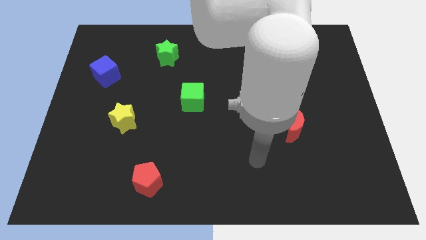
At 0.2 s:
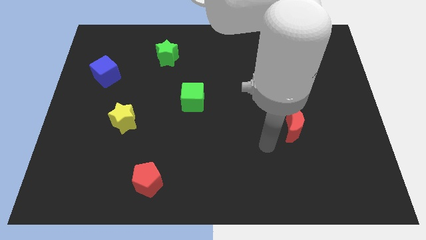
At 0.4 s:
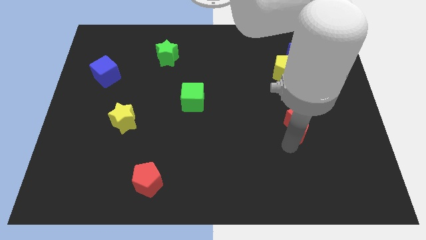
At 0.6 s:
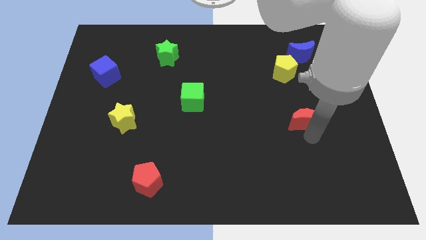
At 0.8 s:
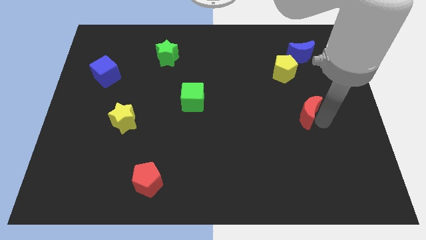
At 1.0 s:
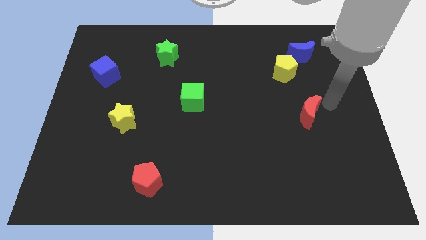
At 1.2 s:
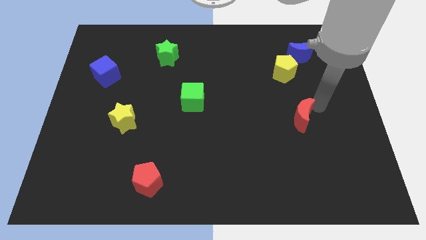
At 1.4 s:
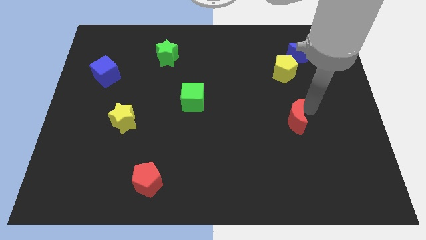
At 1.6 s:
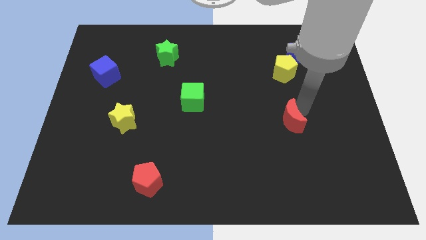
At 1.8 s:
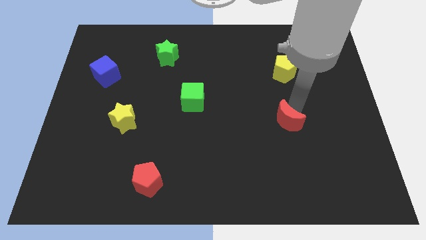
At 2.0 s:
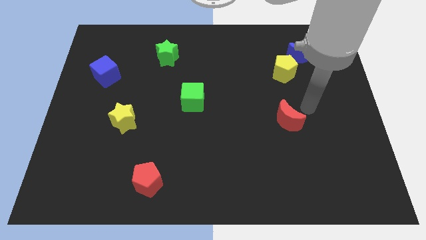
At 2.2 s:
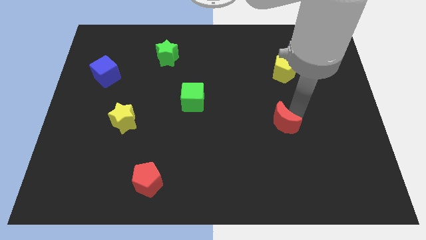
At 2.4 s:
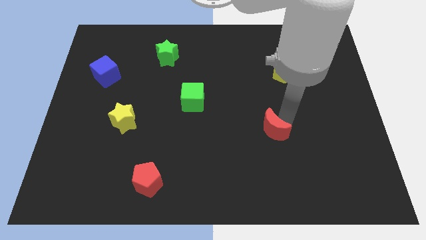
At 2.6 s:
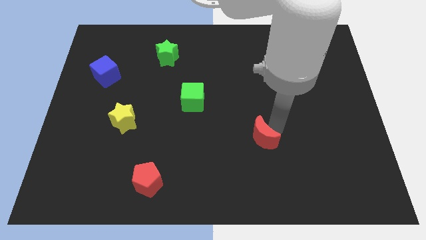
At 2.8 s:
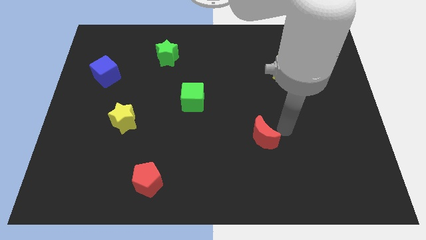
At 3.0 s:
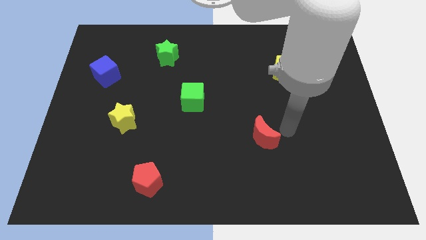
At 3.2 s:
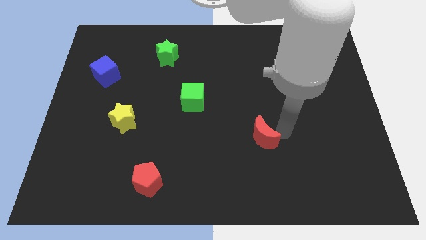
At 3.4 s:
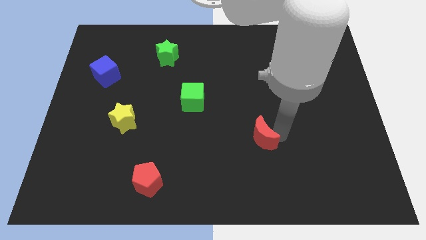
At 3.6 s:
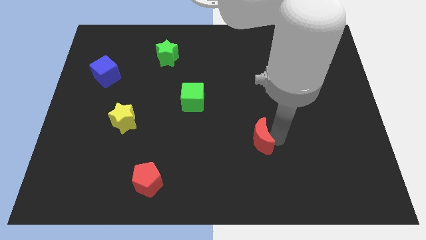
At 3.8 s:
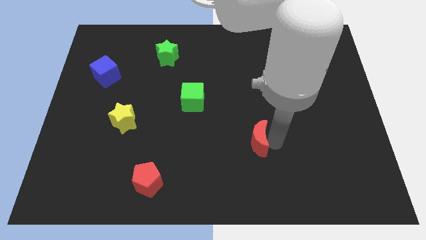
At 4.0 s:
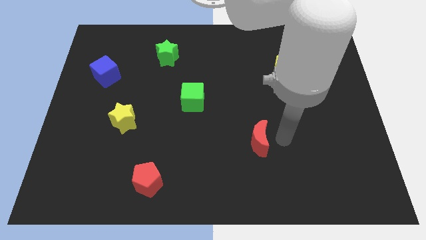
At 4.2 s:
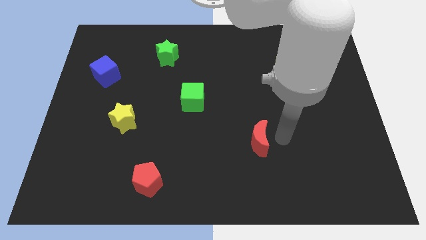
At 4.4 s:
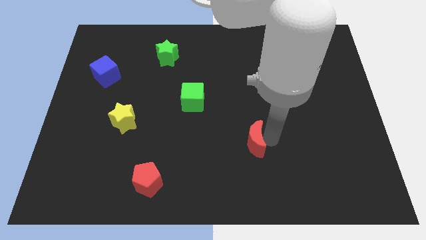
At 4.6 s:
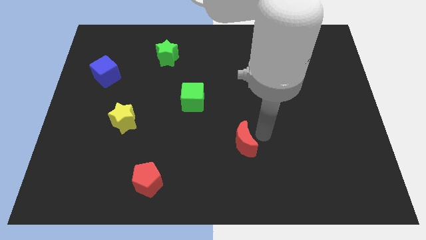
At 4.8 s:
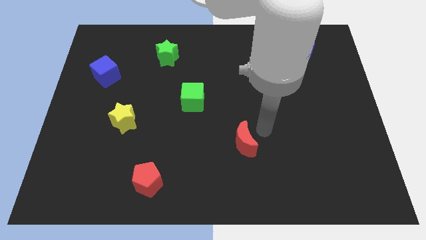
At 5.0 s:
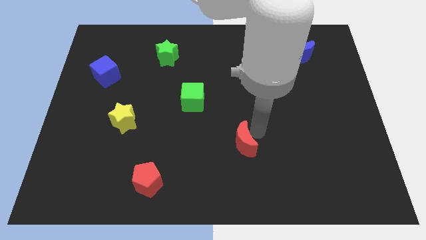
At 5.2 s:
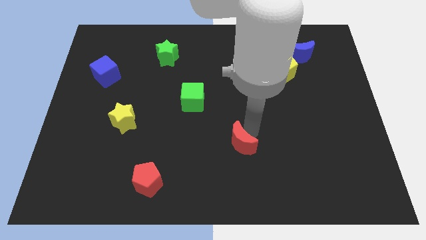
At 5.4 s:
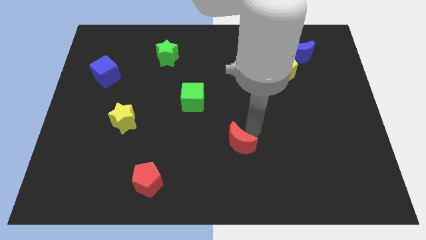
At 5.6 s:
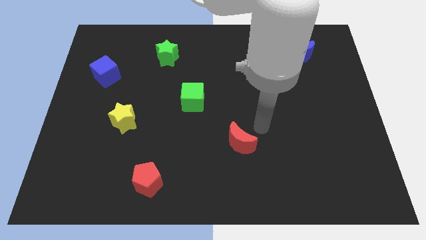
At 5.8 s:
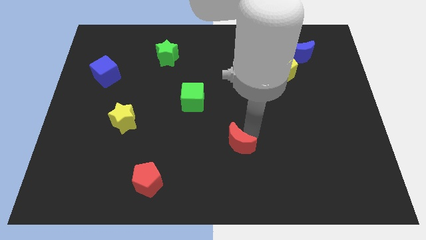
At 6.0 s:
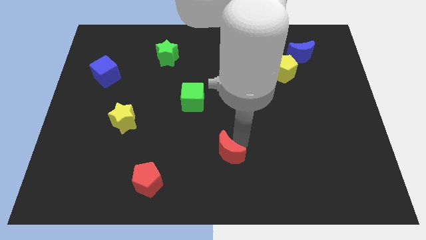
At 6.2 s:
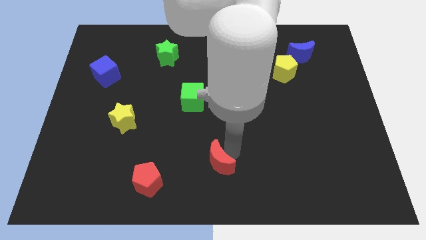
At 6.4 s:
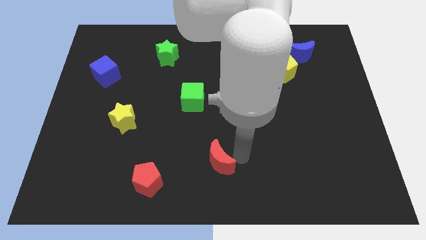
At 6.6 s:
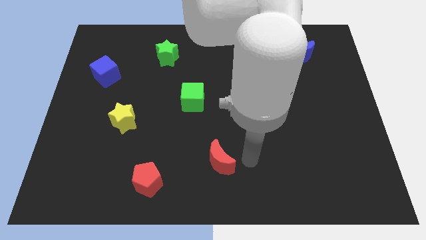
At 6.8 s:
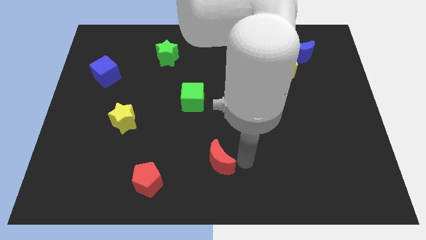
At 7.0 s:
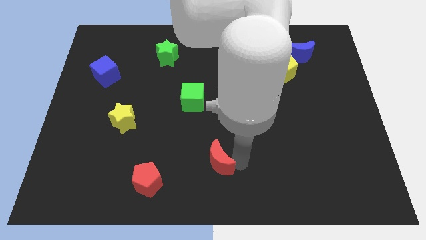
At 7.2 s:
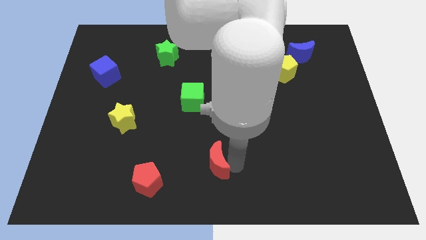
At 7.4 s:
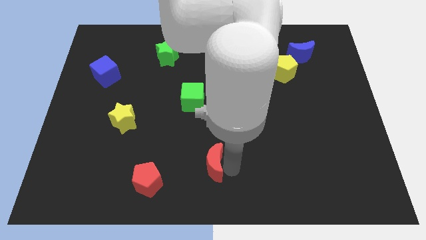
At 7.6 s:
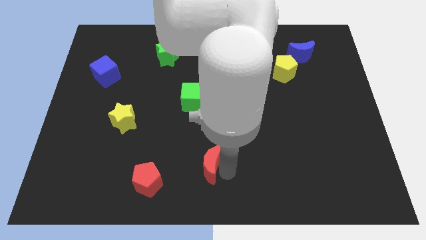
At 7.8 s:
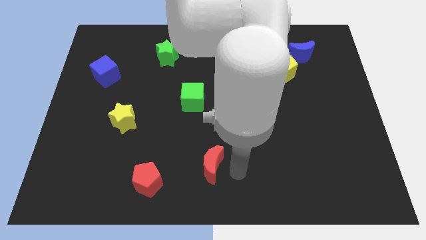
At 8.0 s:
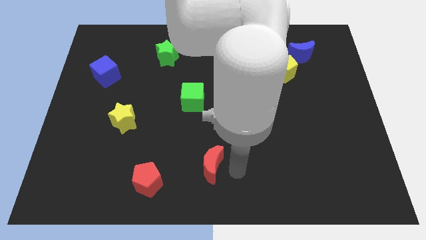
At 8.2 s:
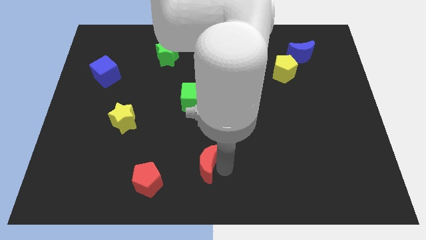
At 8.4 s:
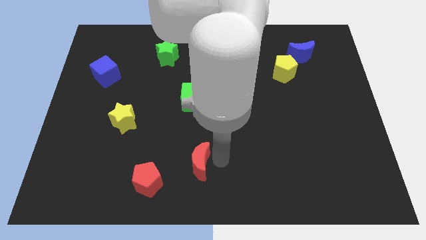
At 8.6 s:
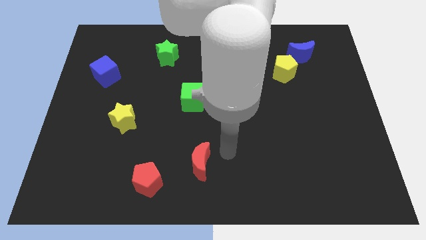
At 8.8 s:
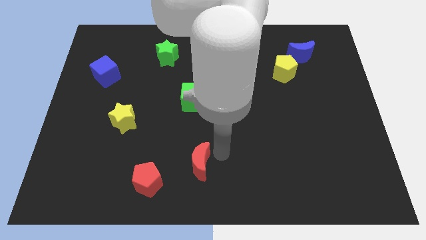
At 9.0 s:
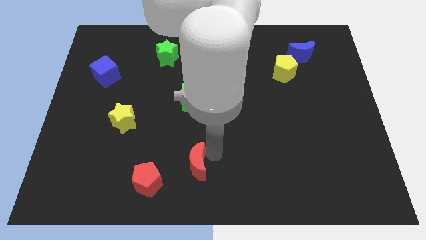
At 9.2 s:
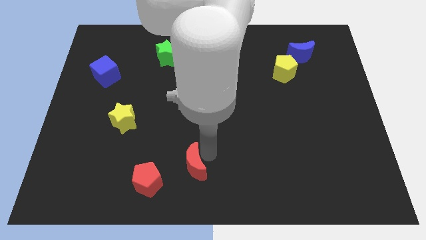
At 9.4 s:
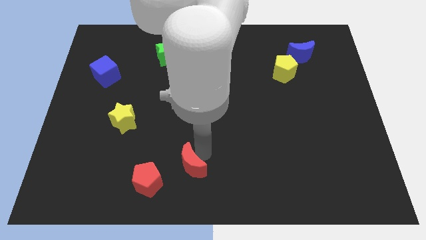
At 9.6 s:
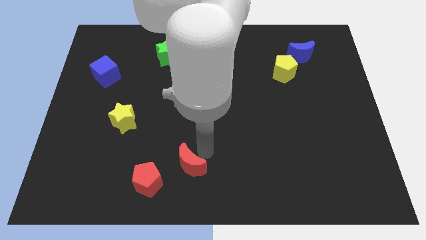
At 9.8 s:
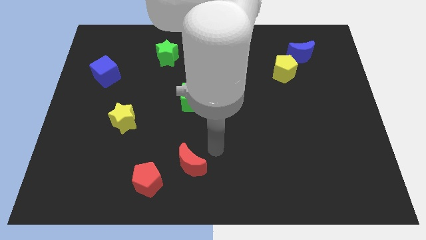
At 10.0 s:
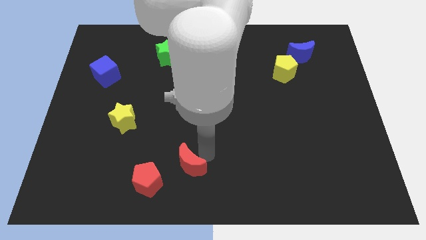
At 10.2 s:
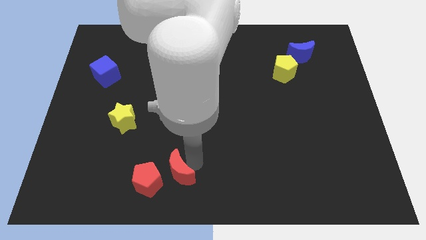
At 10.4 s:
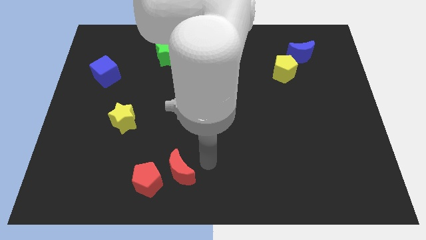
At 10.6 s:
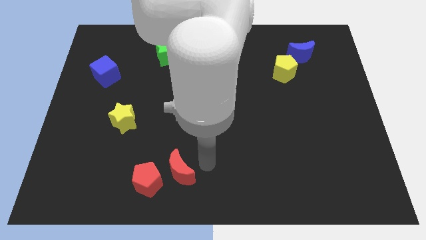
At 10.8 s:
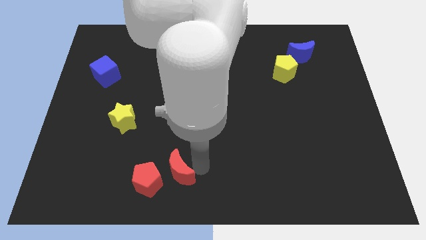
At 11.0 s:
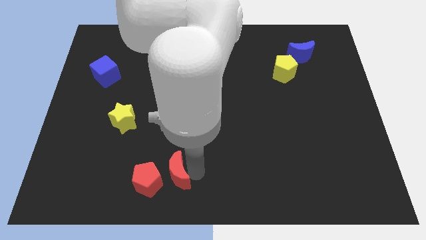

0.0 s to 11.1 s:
slide the red moon close to the red pentagon

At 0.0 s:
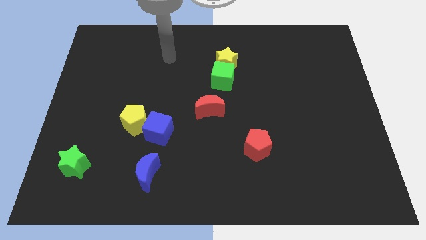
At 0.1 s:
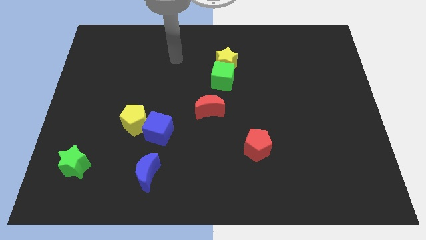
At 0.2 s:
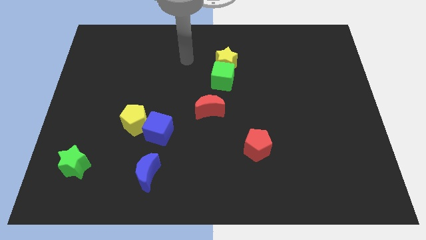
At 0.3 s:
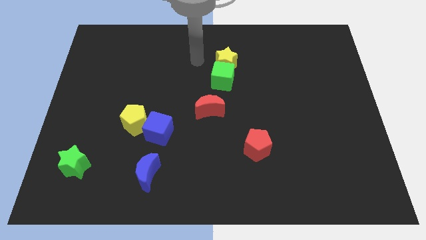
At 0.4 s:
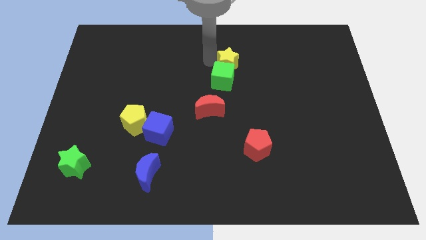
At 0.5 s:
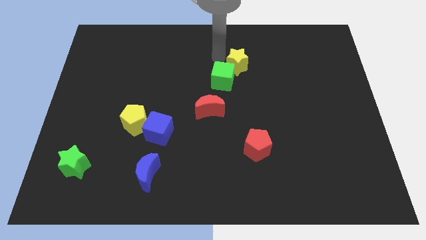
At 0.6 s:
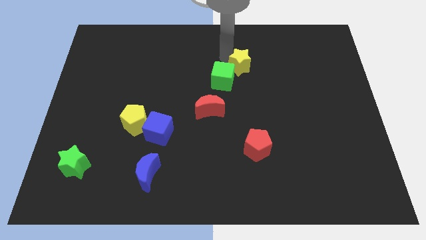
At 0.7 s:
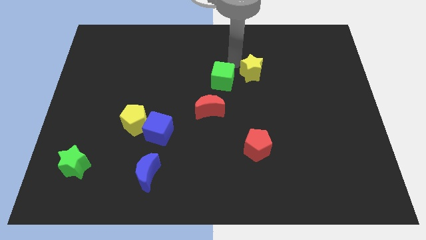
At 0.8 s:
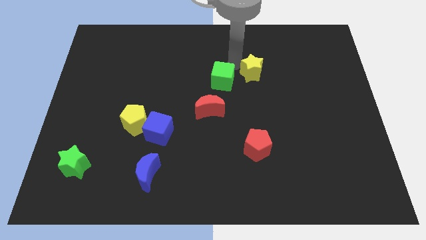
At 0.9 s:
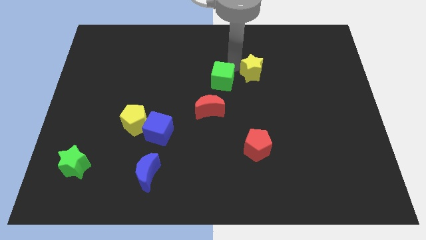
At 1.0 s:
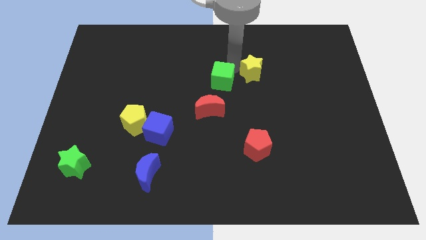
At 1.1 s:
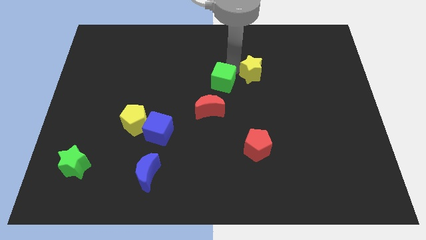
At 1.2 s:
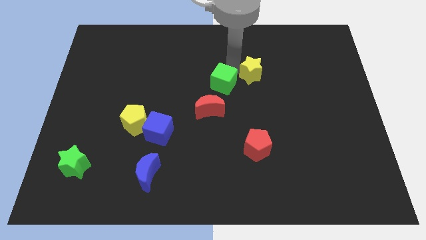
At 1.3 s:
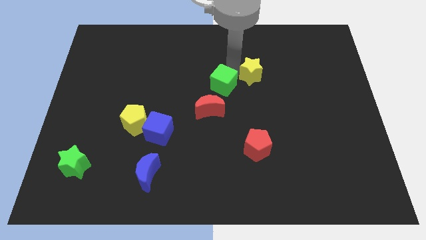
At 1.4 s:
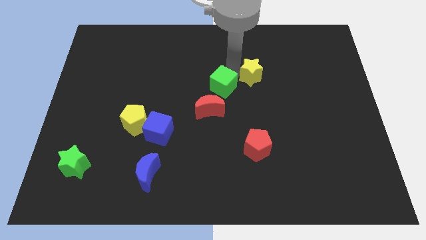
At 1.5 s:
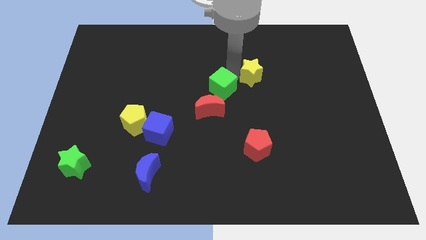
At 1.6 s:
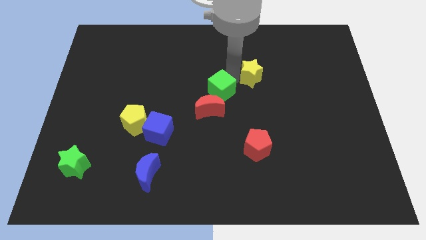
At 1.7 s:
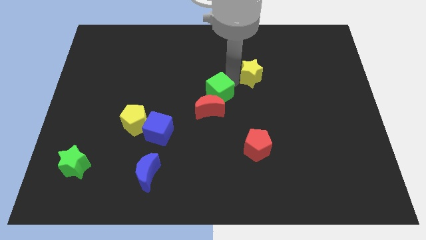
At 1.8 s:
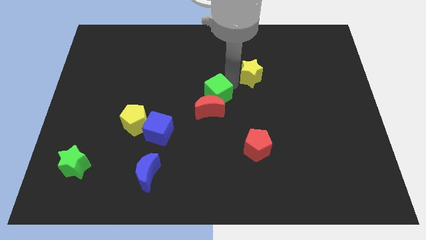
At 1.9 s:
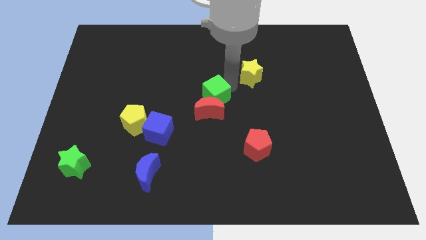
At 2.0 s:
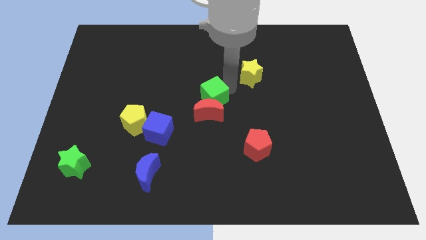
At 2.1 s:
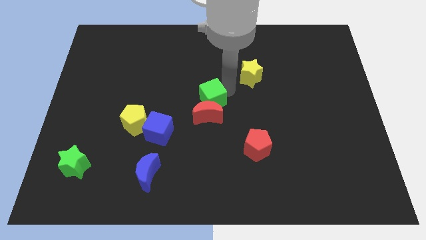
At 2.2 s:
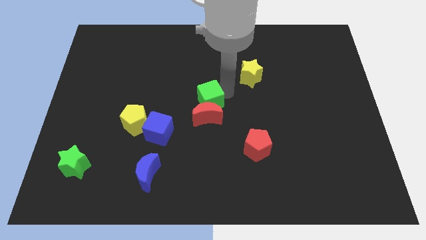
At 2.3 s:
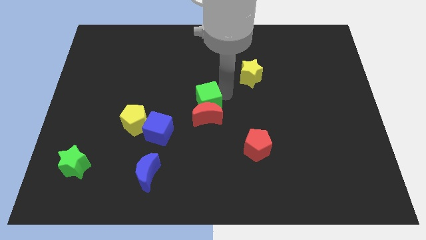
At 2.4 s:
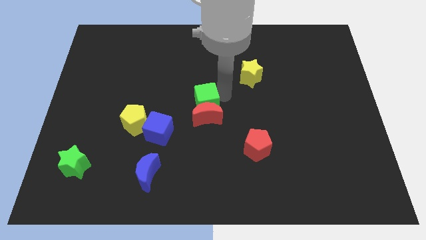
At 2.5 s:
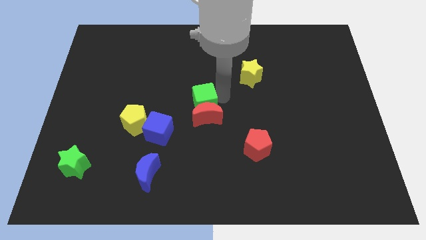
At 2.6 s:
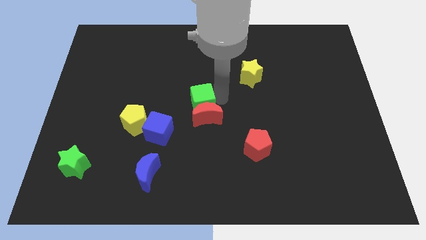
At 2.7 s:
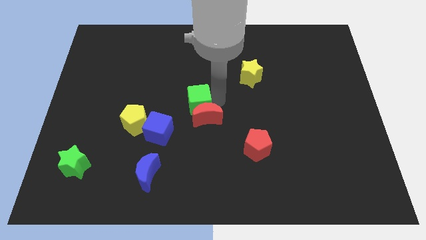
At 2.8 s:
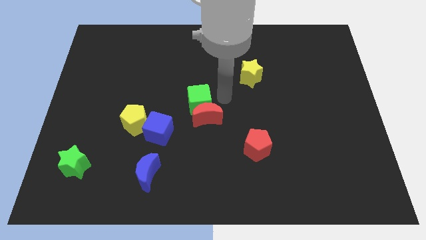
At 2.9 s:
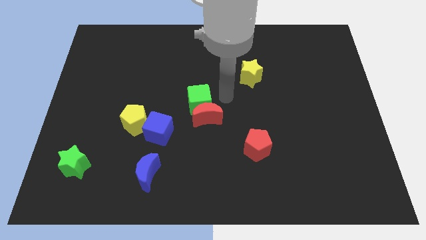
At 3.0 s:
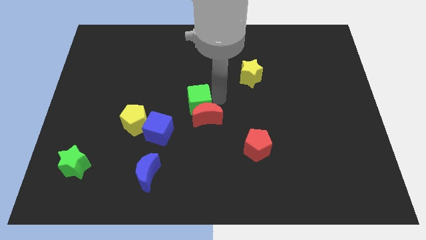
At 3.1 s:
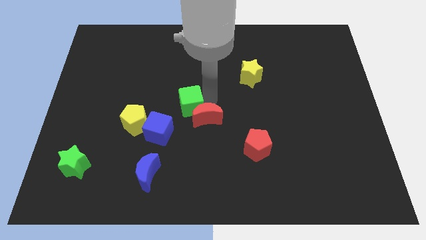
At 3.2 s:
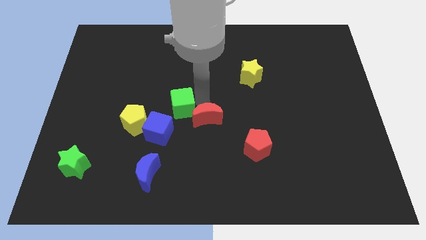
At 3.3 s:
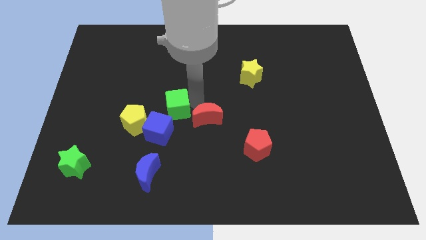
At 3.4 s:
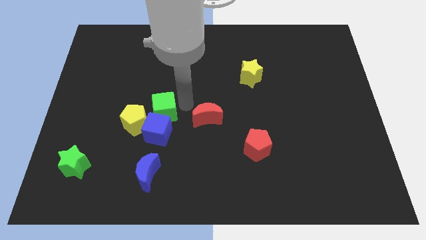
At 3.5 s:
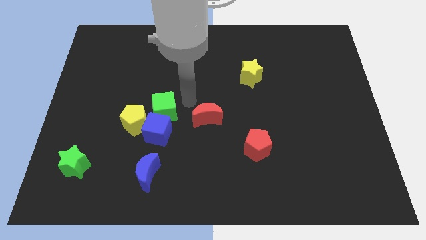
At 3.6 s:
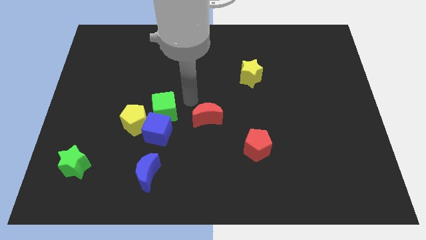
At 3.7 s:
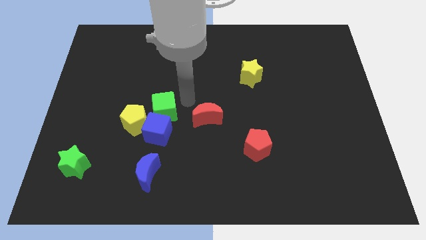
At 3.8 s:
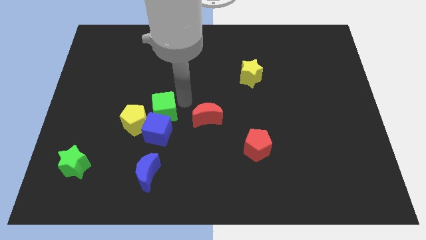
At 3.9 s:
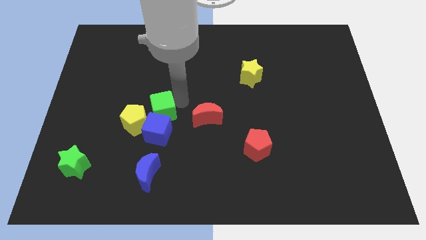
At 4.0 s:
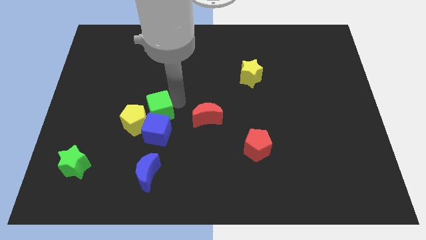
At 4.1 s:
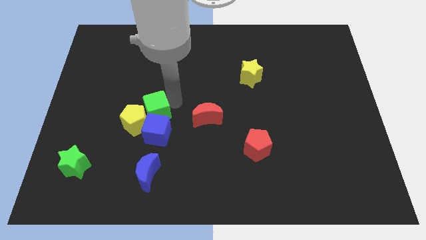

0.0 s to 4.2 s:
move the green cube next to the yellow pentagon
